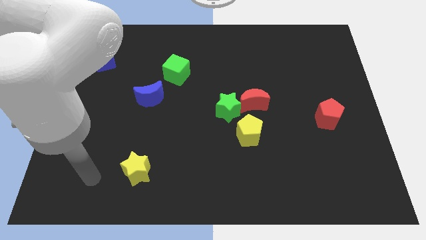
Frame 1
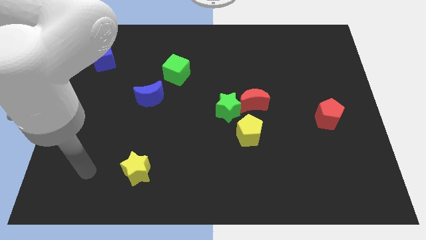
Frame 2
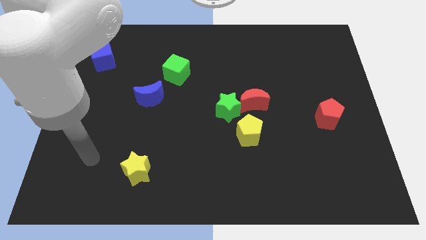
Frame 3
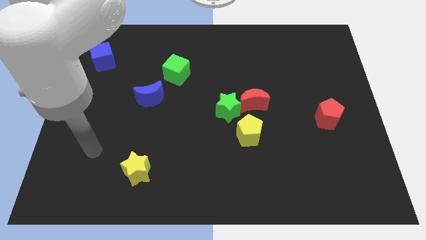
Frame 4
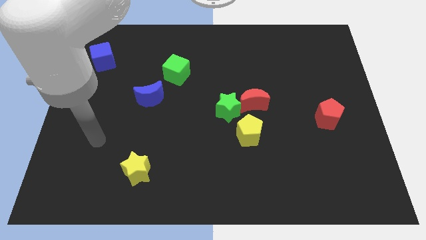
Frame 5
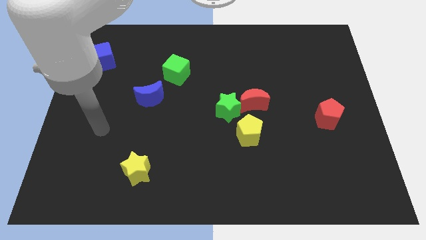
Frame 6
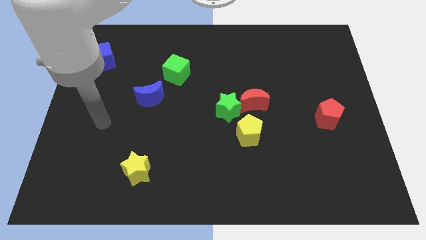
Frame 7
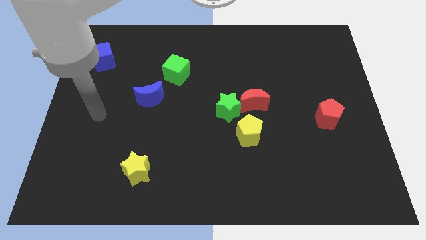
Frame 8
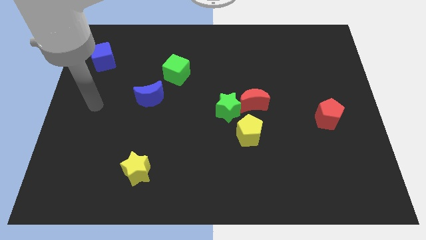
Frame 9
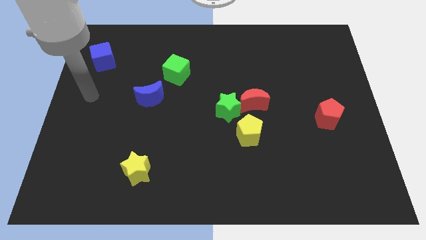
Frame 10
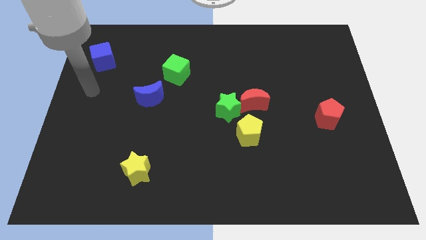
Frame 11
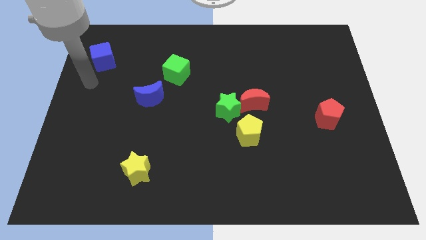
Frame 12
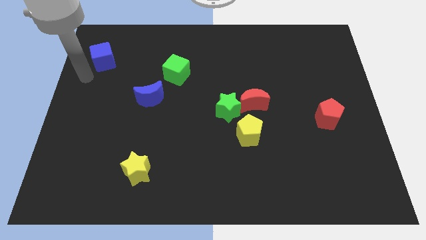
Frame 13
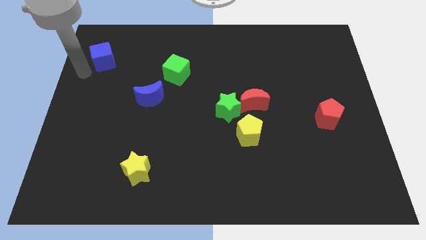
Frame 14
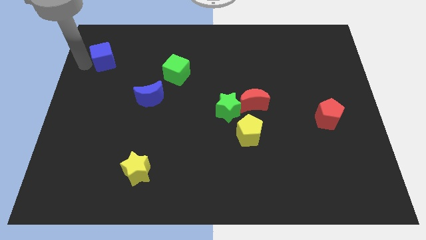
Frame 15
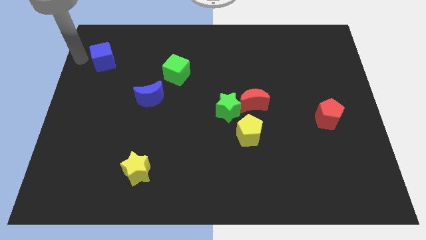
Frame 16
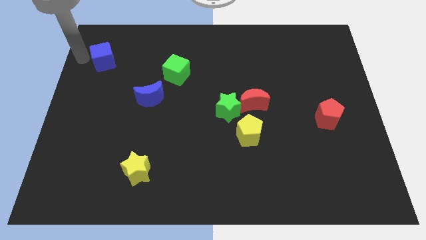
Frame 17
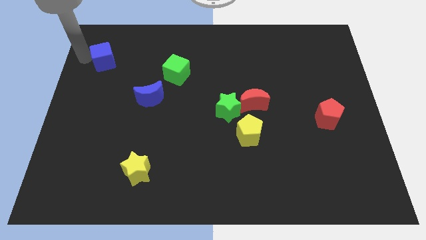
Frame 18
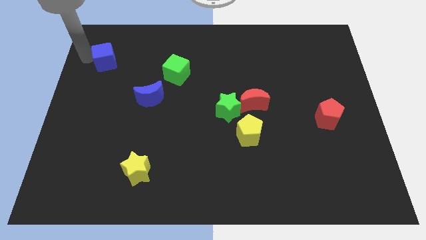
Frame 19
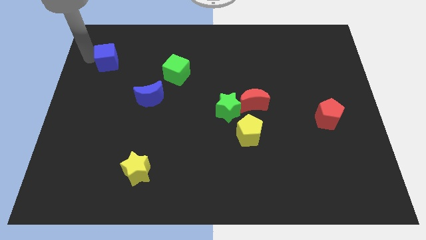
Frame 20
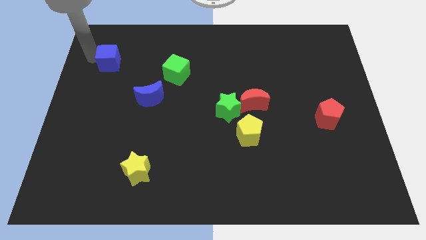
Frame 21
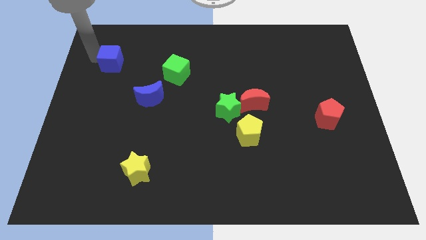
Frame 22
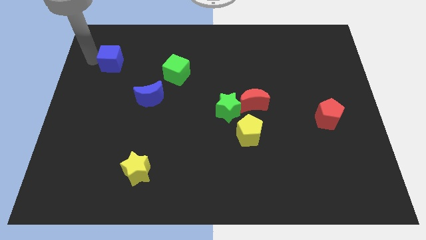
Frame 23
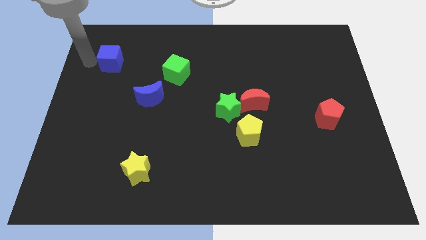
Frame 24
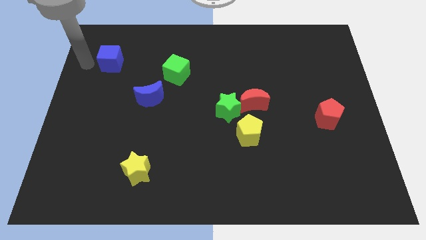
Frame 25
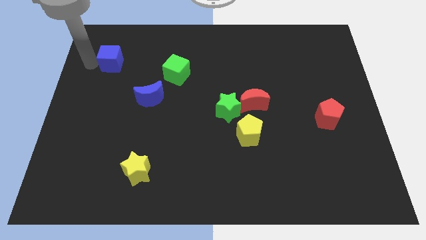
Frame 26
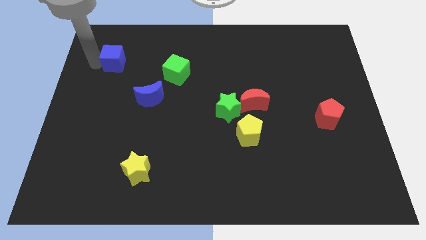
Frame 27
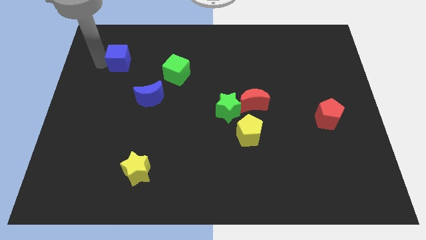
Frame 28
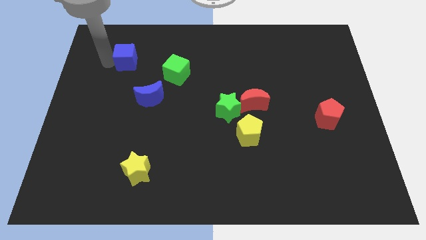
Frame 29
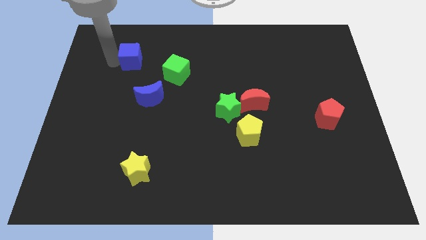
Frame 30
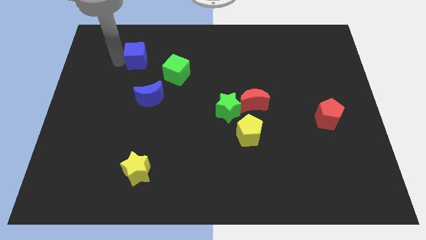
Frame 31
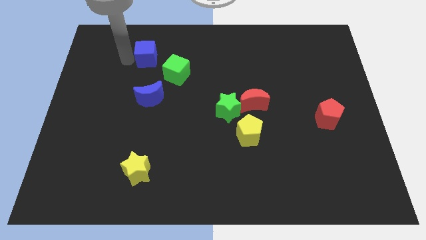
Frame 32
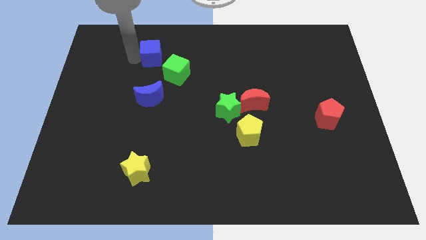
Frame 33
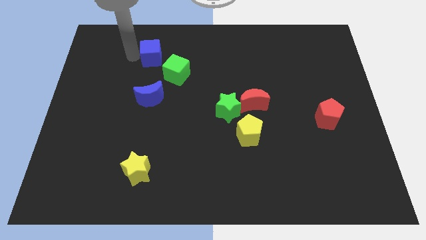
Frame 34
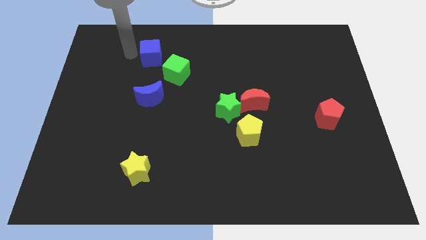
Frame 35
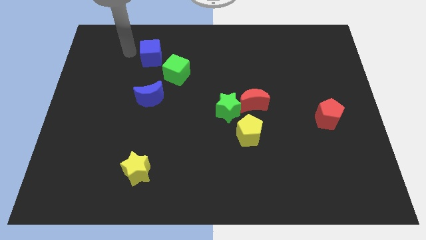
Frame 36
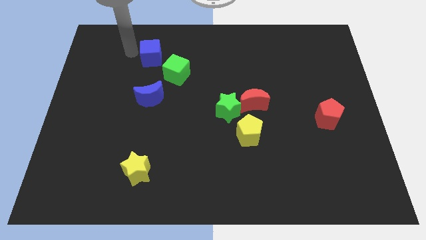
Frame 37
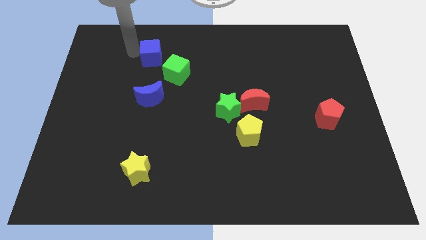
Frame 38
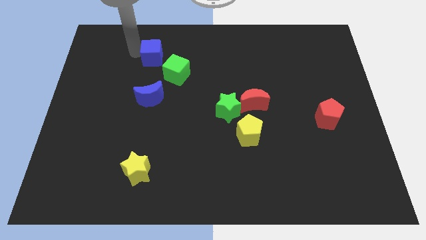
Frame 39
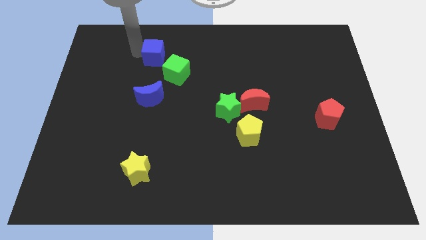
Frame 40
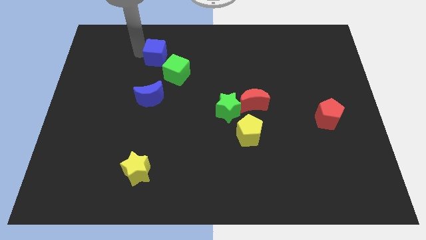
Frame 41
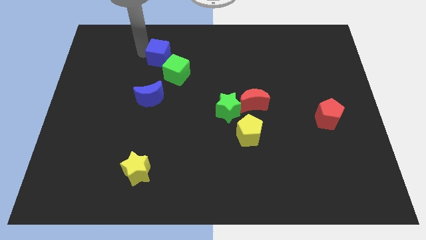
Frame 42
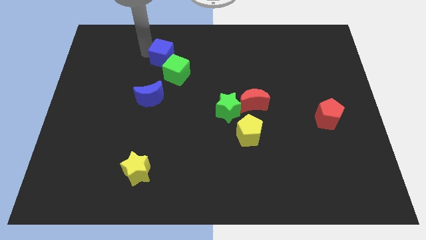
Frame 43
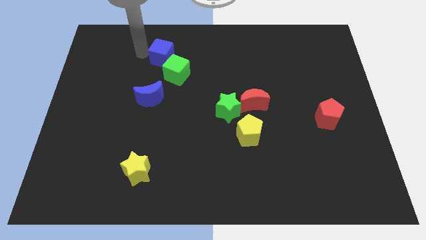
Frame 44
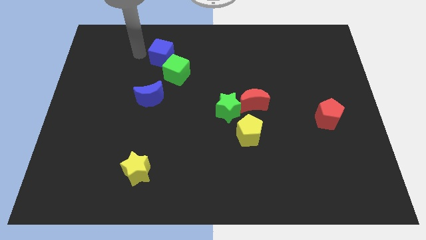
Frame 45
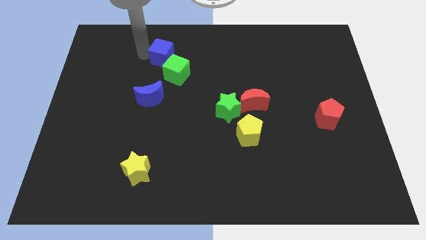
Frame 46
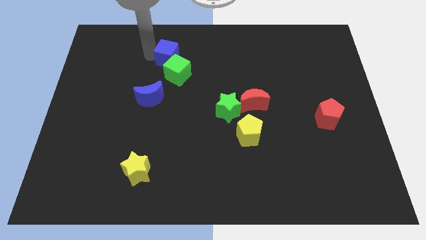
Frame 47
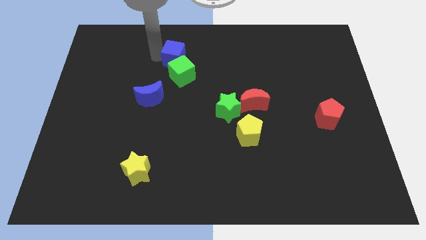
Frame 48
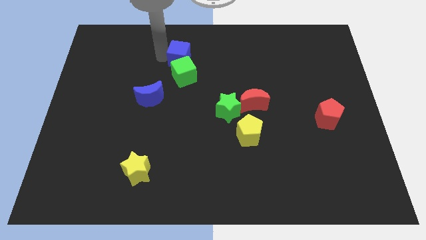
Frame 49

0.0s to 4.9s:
move the blue cube right

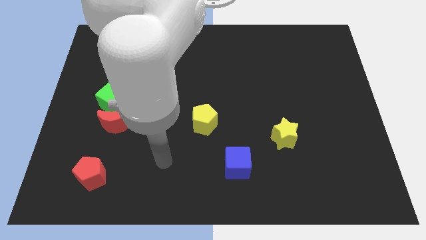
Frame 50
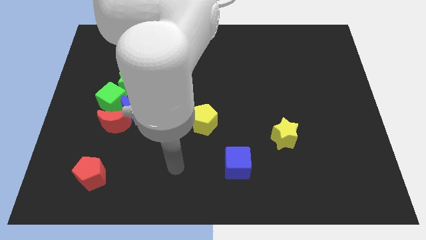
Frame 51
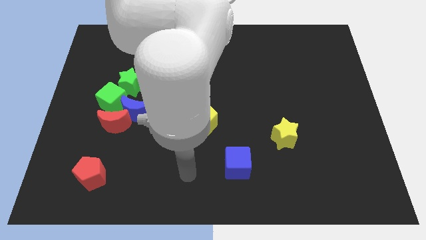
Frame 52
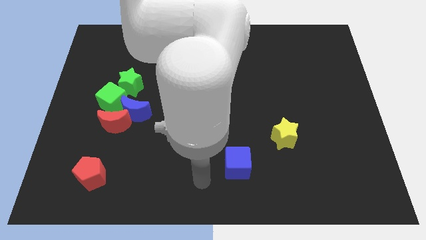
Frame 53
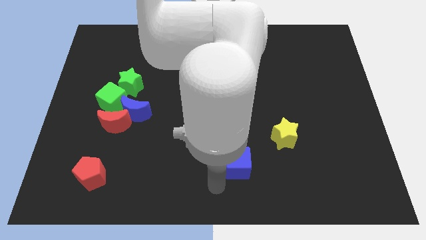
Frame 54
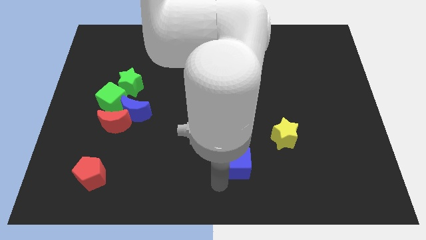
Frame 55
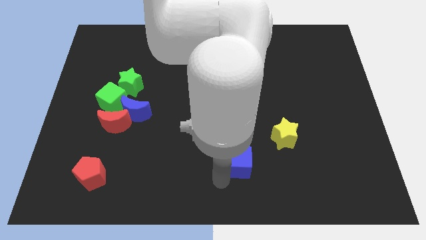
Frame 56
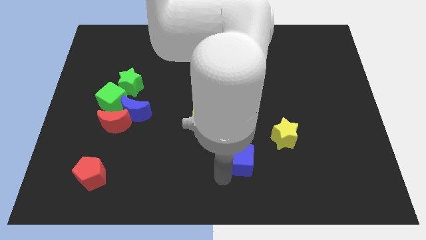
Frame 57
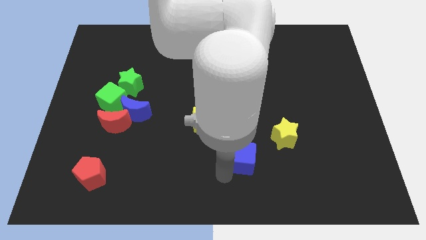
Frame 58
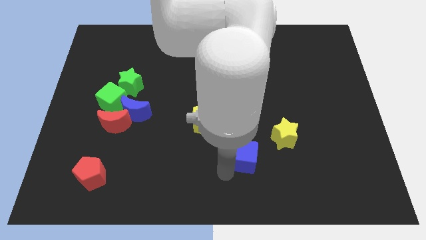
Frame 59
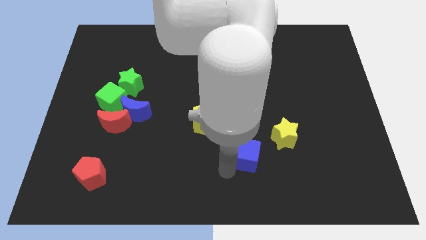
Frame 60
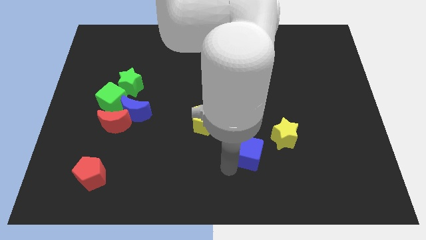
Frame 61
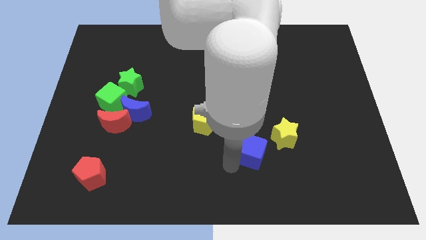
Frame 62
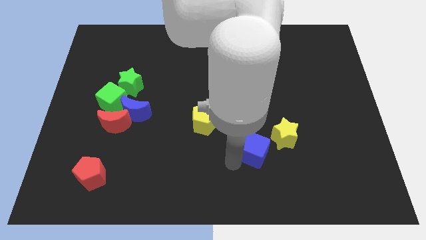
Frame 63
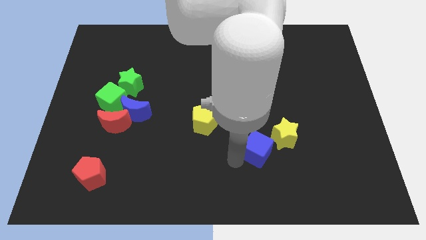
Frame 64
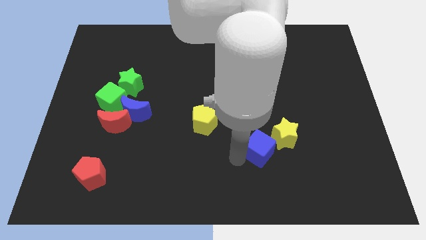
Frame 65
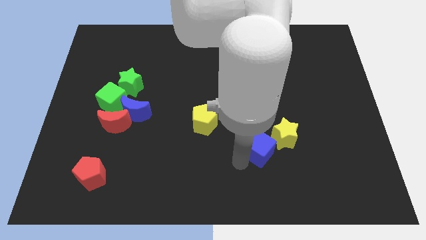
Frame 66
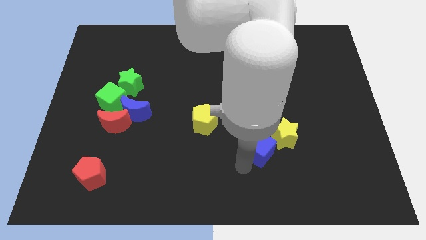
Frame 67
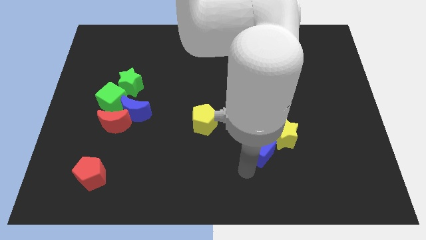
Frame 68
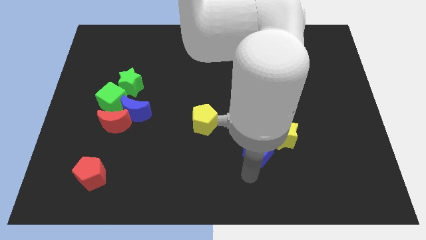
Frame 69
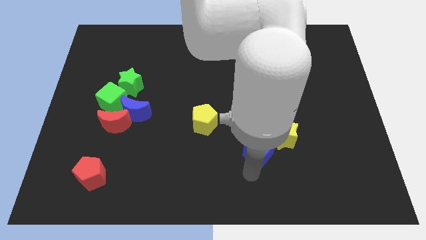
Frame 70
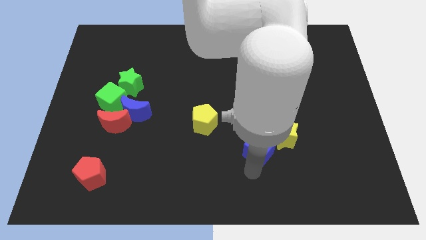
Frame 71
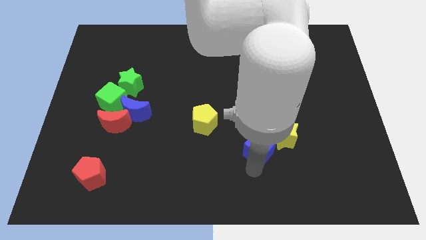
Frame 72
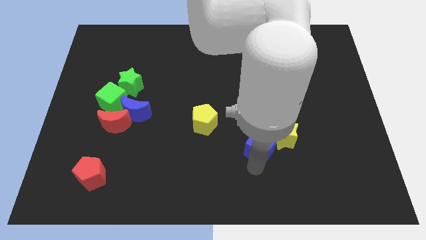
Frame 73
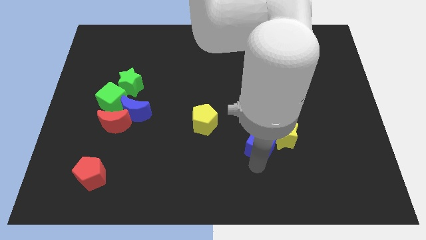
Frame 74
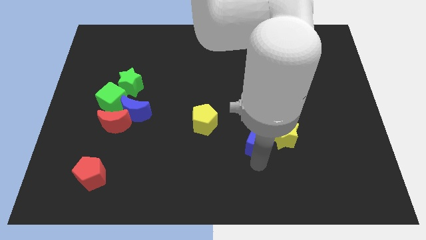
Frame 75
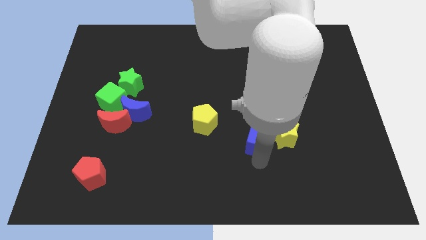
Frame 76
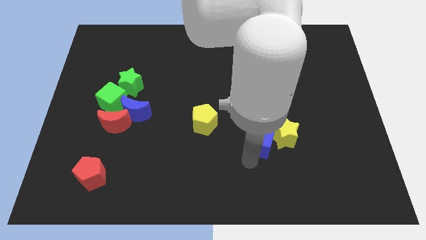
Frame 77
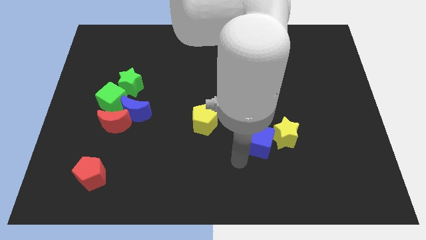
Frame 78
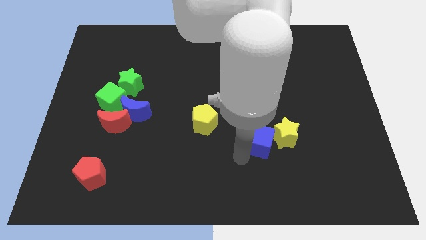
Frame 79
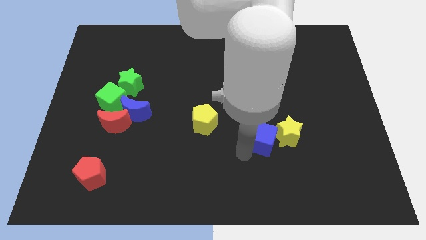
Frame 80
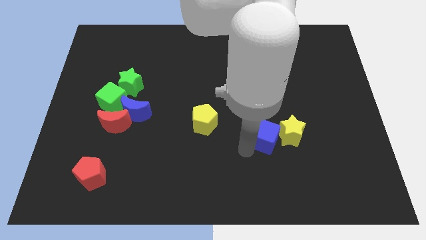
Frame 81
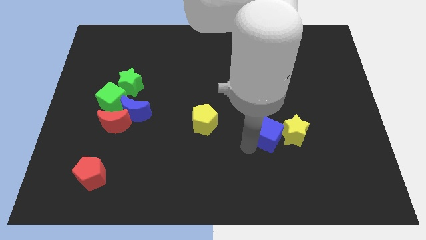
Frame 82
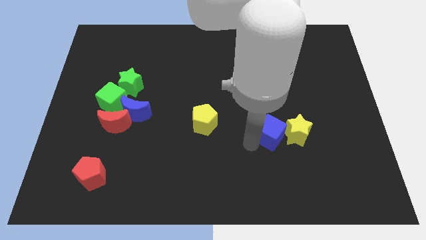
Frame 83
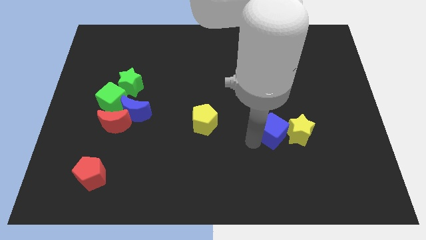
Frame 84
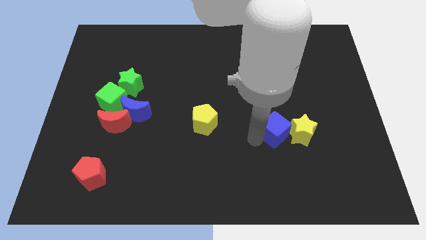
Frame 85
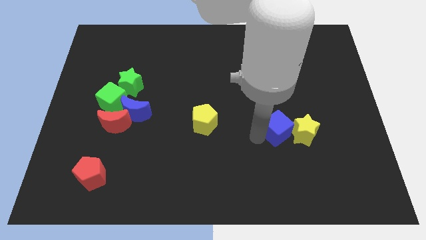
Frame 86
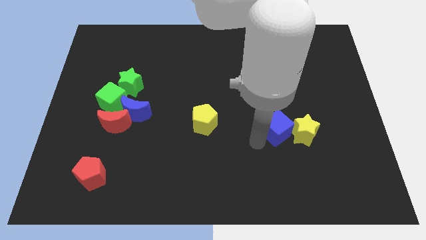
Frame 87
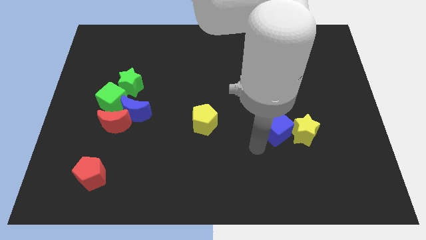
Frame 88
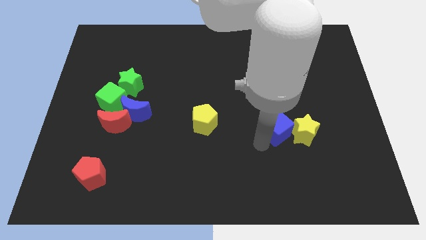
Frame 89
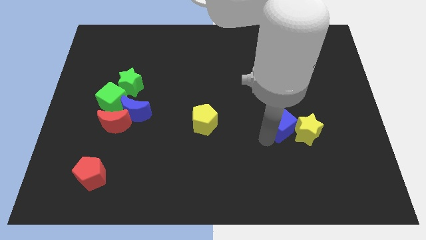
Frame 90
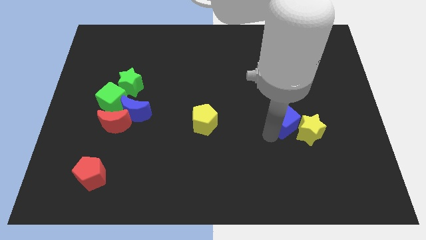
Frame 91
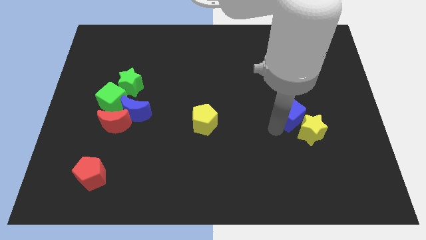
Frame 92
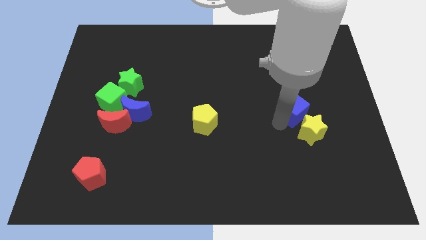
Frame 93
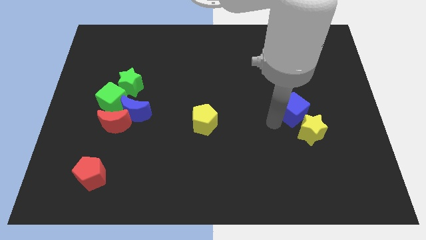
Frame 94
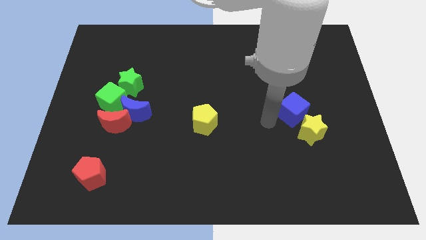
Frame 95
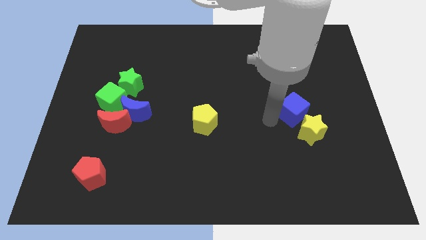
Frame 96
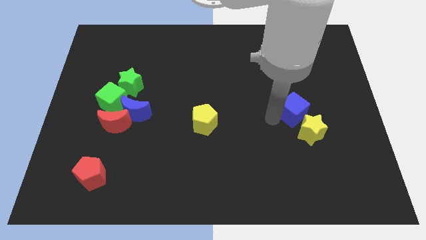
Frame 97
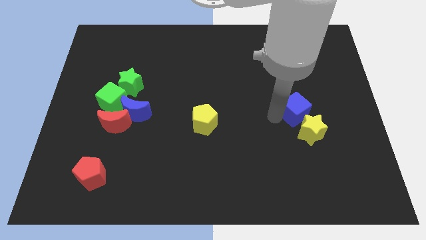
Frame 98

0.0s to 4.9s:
slide the blue cube up and right
